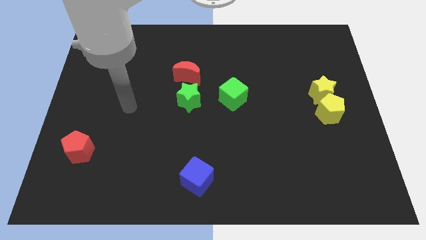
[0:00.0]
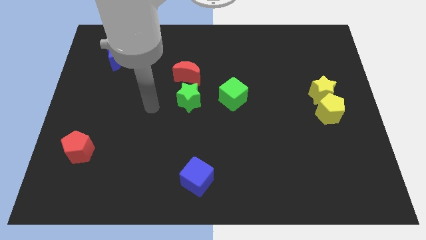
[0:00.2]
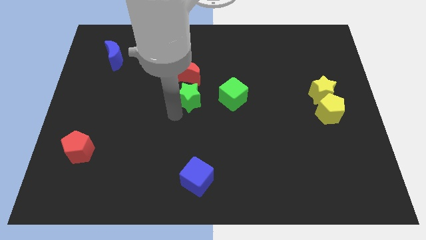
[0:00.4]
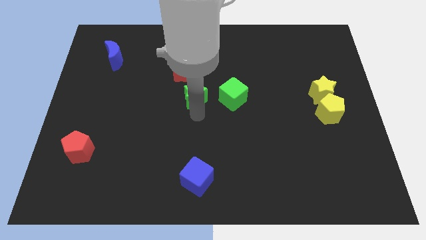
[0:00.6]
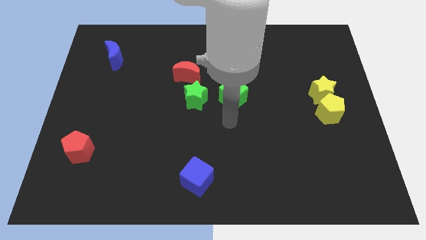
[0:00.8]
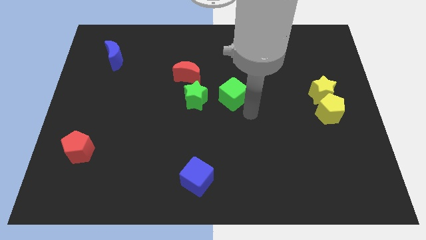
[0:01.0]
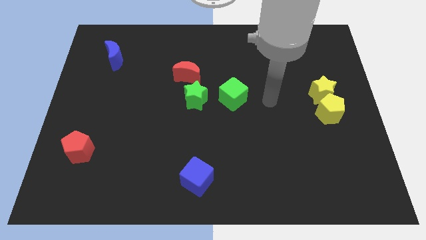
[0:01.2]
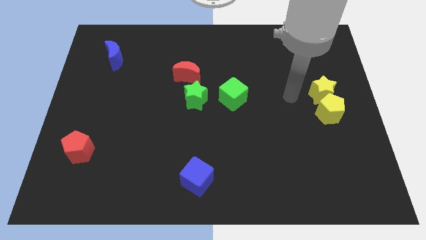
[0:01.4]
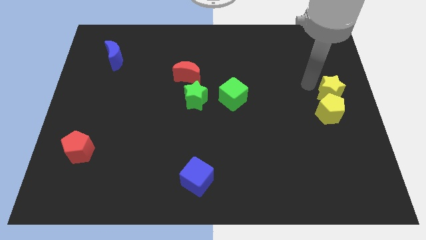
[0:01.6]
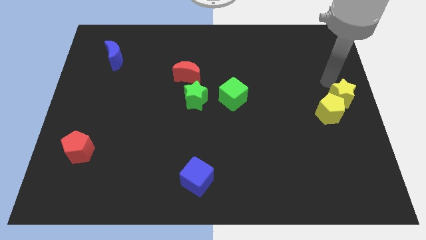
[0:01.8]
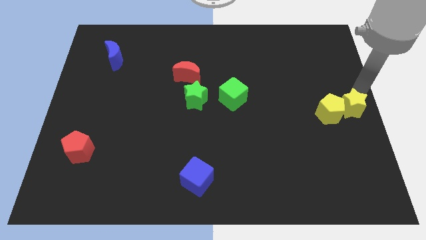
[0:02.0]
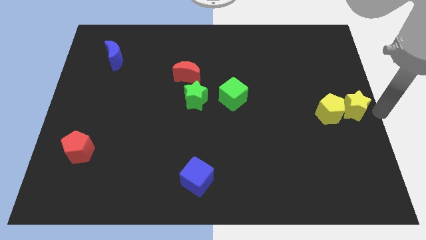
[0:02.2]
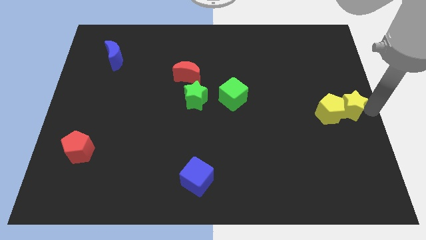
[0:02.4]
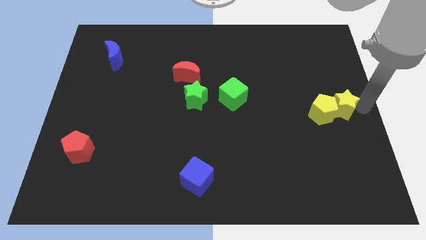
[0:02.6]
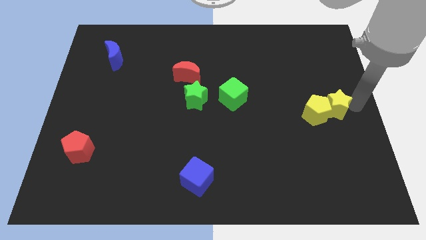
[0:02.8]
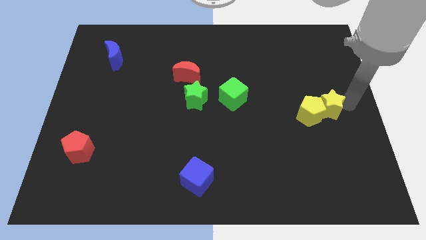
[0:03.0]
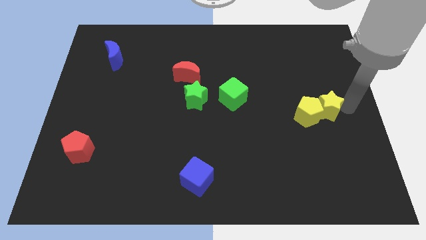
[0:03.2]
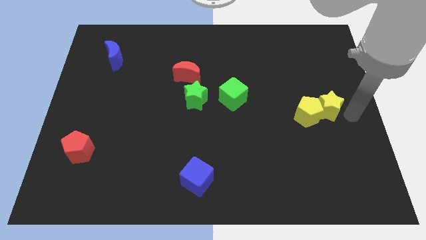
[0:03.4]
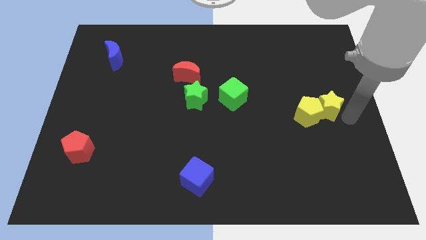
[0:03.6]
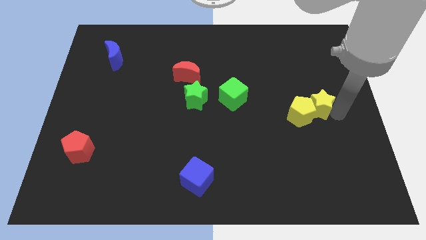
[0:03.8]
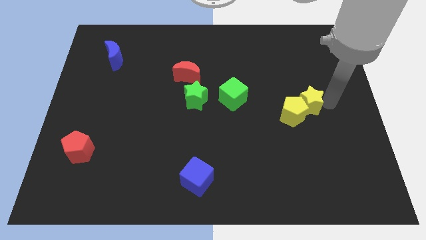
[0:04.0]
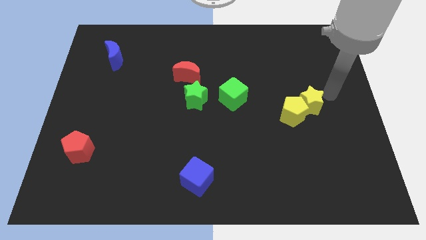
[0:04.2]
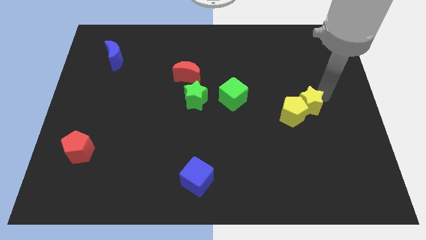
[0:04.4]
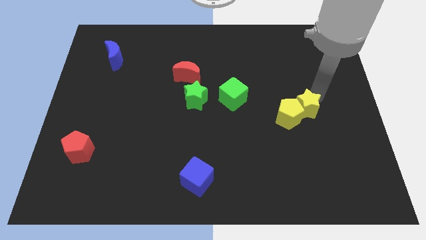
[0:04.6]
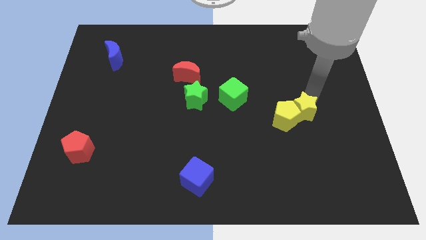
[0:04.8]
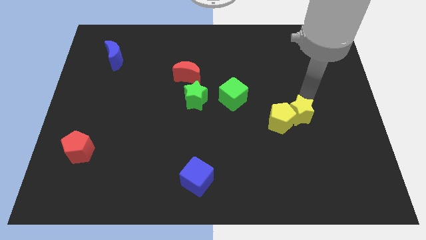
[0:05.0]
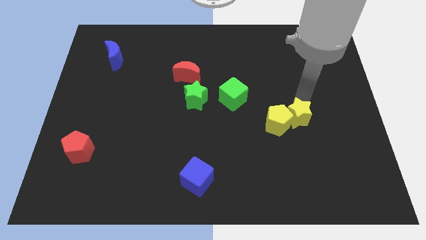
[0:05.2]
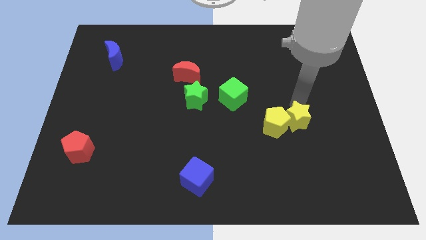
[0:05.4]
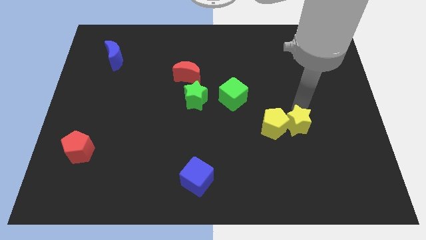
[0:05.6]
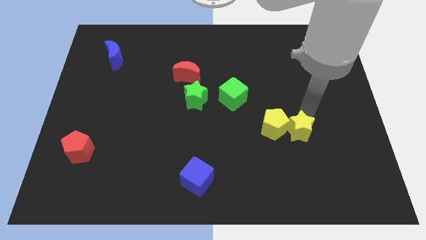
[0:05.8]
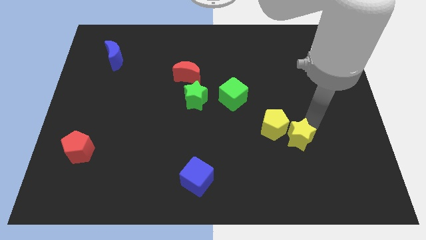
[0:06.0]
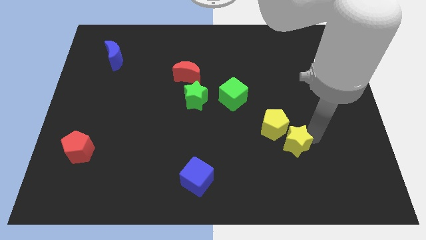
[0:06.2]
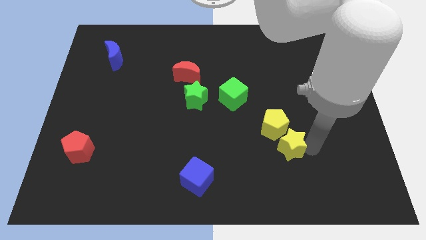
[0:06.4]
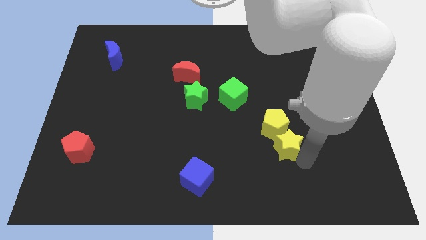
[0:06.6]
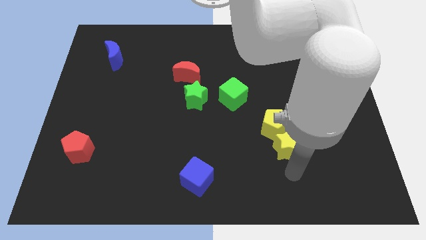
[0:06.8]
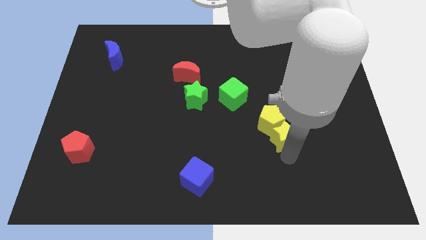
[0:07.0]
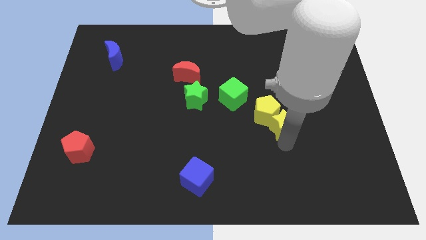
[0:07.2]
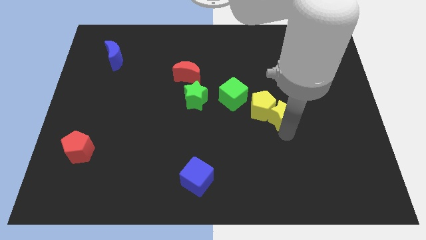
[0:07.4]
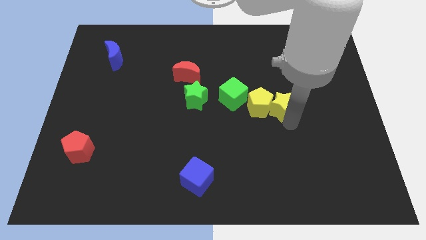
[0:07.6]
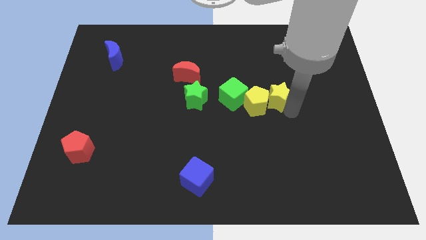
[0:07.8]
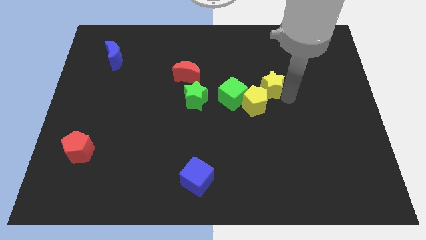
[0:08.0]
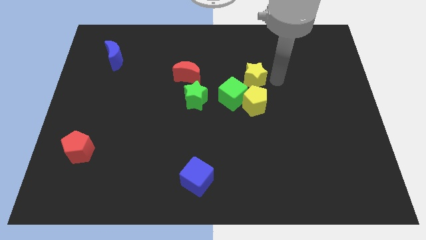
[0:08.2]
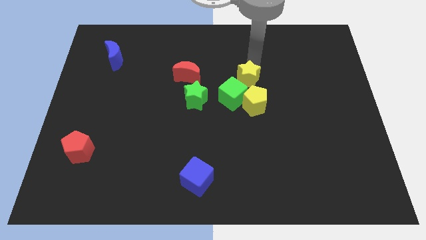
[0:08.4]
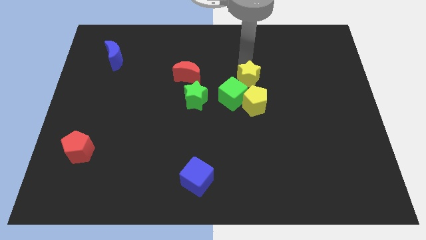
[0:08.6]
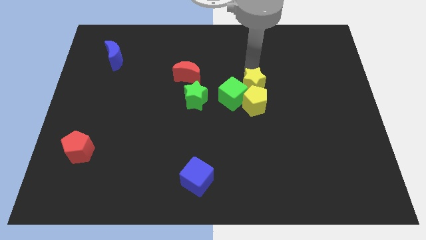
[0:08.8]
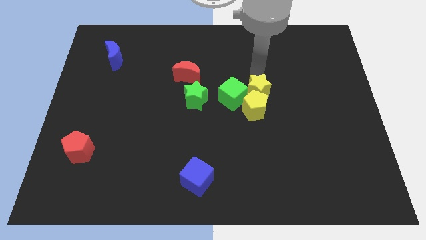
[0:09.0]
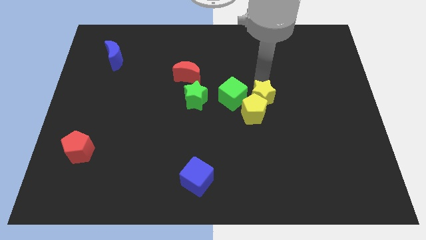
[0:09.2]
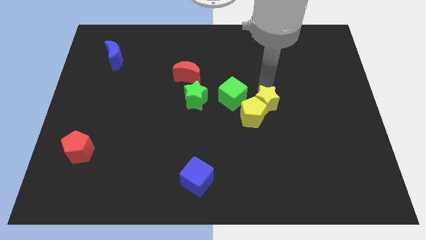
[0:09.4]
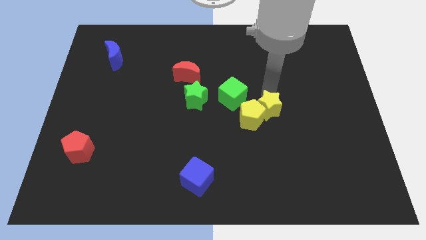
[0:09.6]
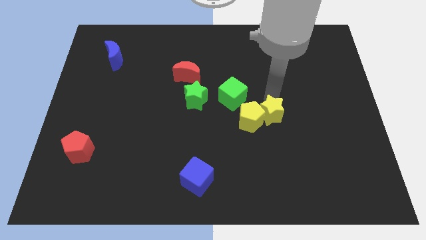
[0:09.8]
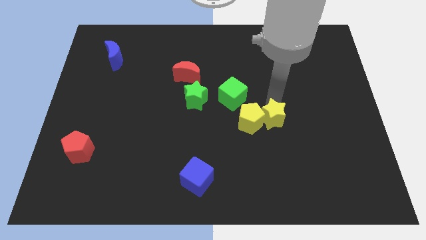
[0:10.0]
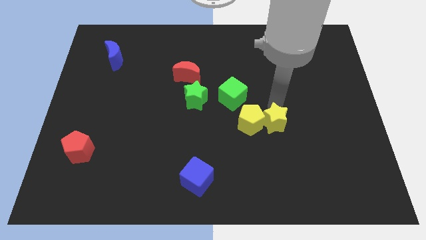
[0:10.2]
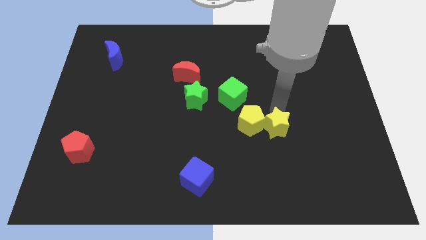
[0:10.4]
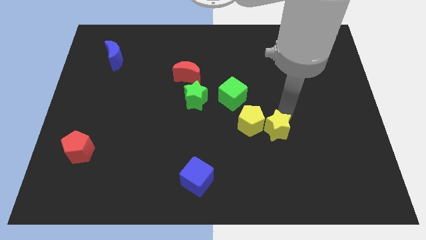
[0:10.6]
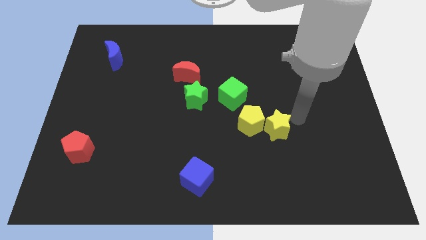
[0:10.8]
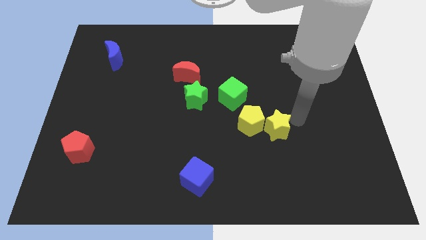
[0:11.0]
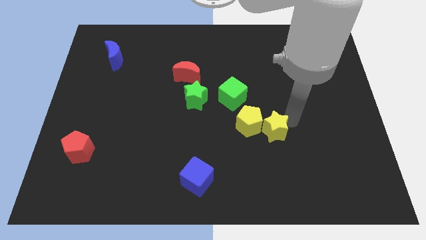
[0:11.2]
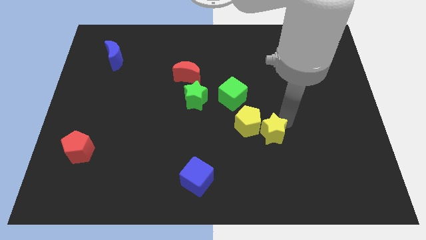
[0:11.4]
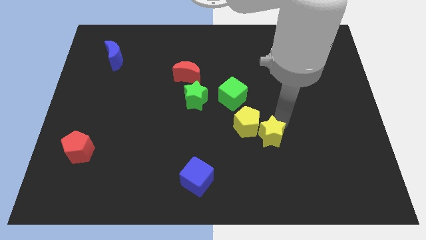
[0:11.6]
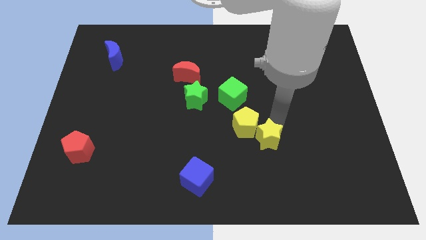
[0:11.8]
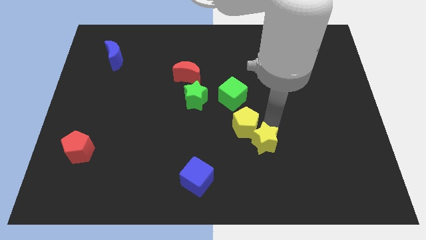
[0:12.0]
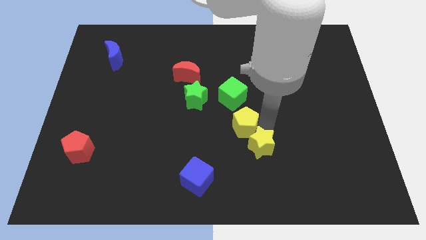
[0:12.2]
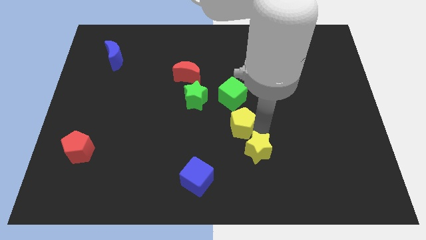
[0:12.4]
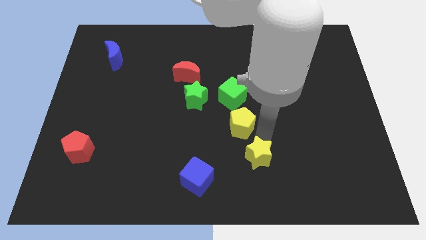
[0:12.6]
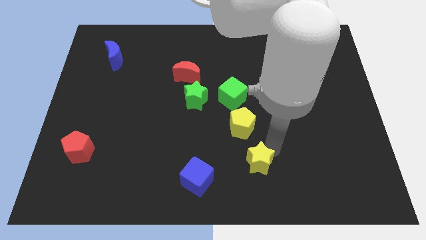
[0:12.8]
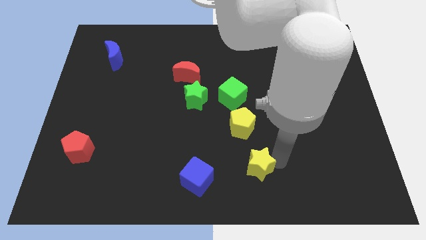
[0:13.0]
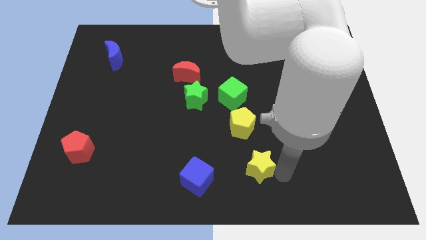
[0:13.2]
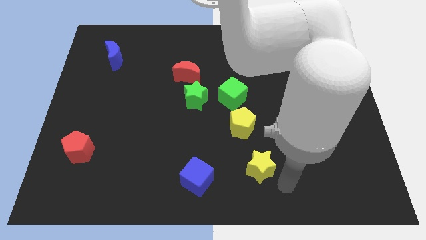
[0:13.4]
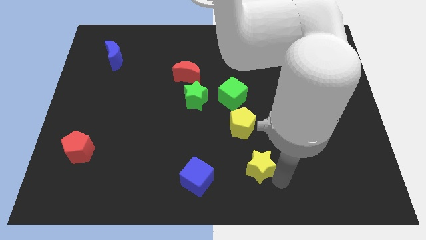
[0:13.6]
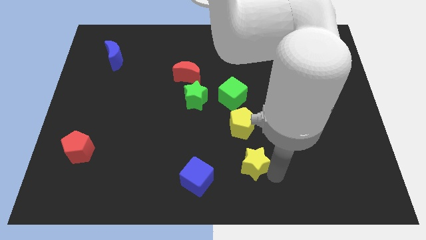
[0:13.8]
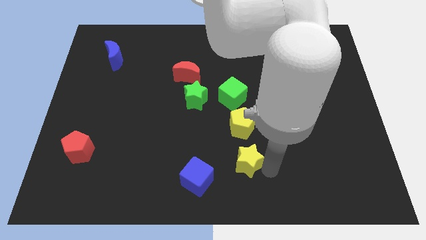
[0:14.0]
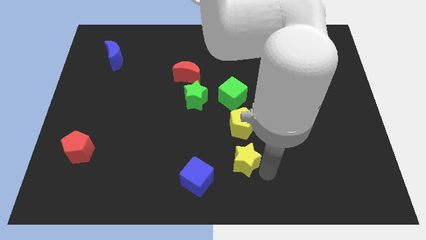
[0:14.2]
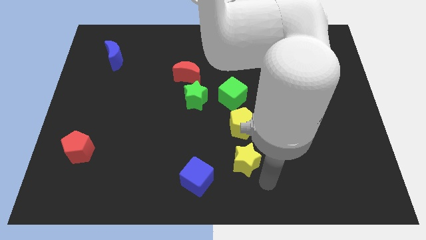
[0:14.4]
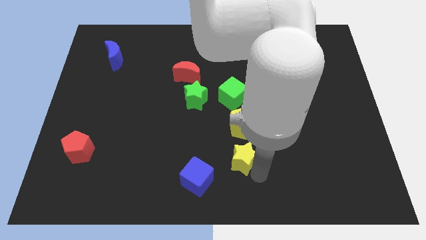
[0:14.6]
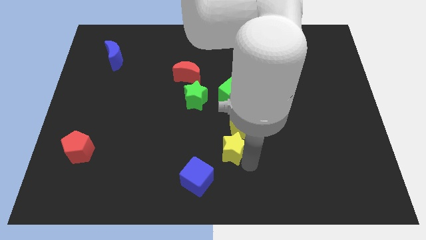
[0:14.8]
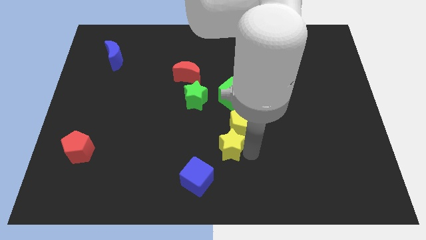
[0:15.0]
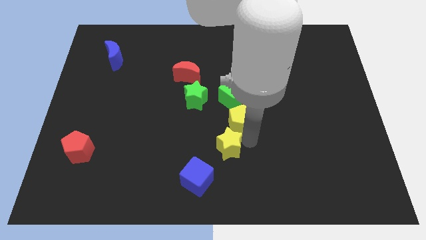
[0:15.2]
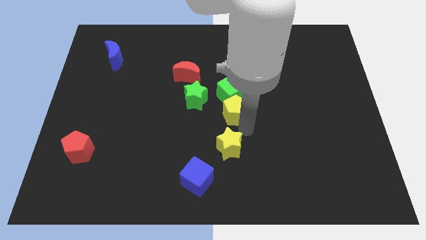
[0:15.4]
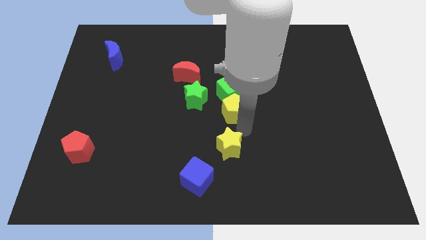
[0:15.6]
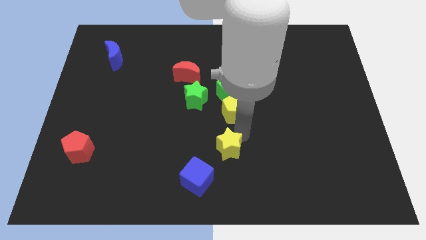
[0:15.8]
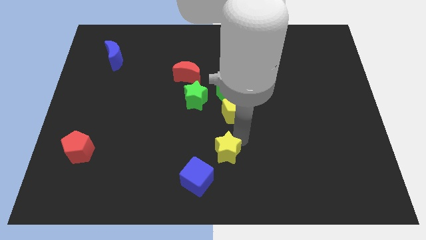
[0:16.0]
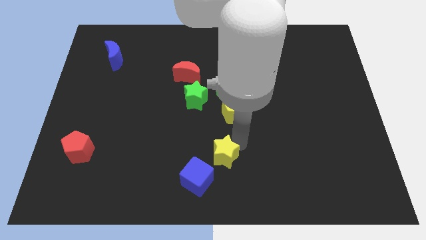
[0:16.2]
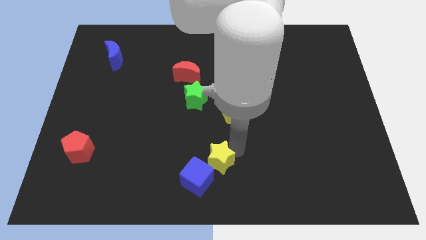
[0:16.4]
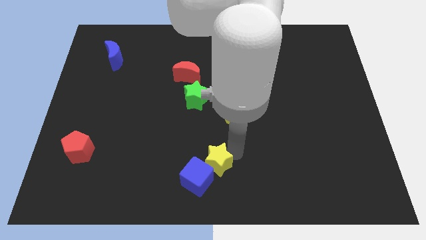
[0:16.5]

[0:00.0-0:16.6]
move the yellow star towards the blue cube
